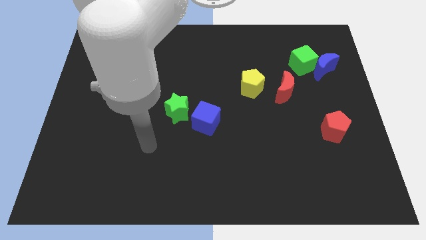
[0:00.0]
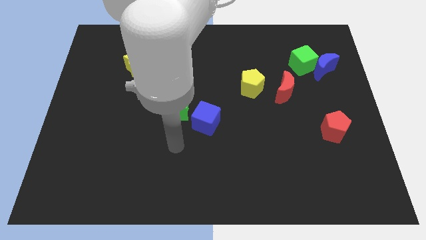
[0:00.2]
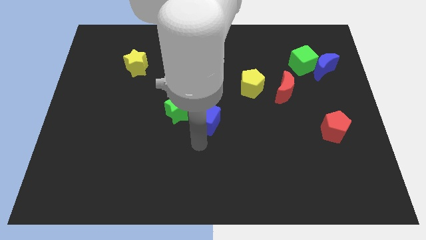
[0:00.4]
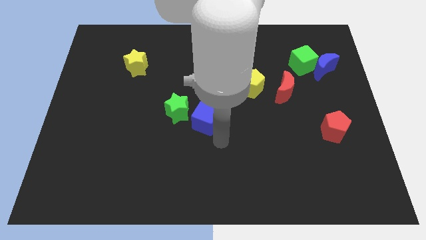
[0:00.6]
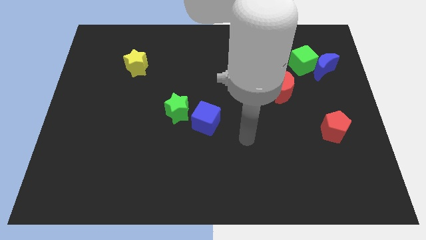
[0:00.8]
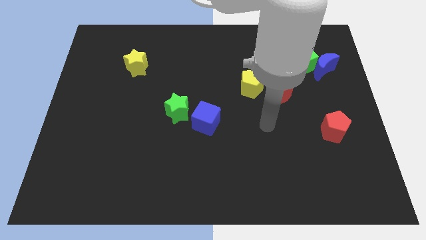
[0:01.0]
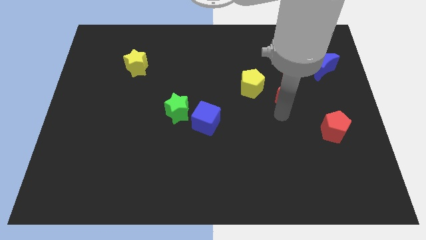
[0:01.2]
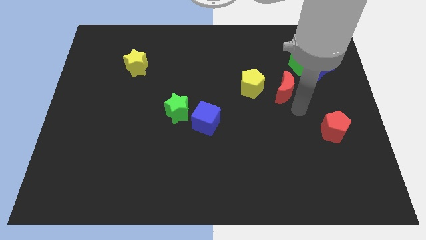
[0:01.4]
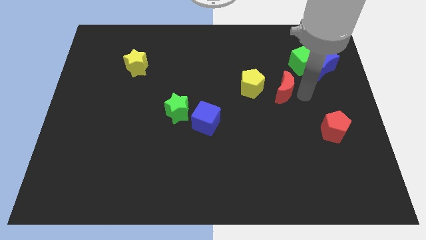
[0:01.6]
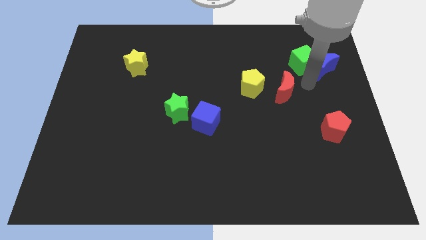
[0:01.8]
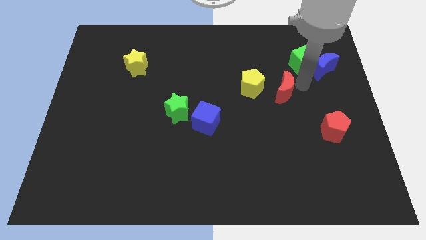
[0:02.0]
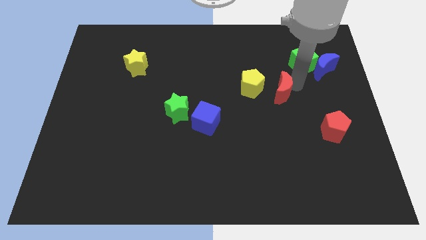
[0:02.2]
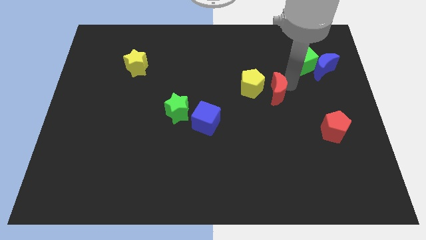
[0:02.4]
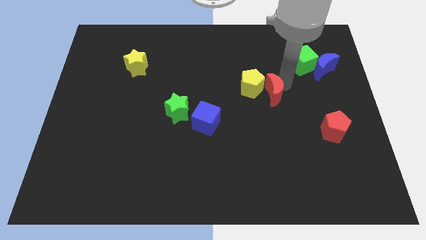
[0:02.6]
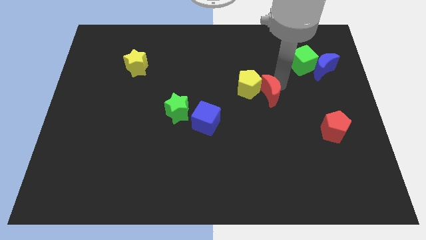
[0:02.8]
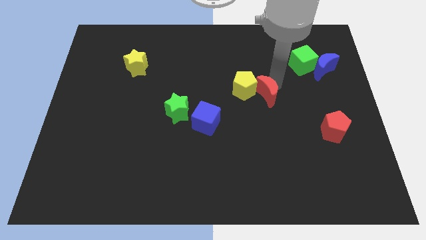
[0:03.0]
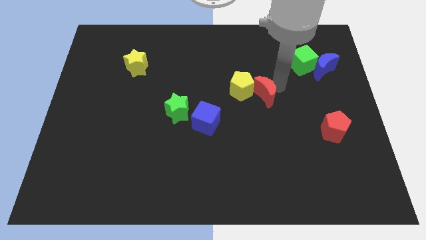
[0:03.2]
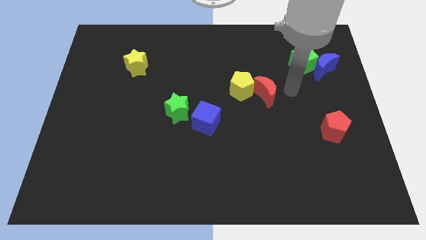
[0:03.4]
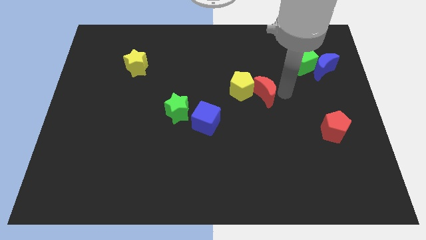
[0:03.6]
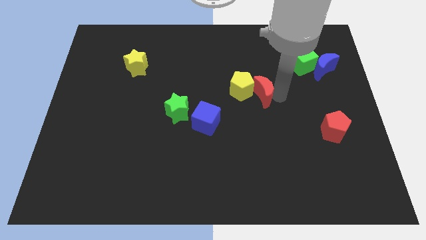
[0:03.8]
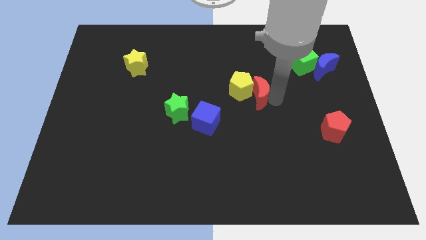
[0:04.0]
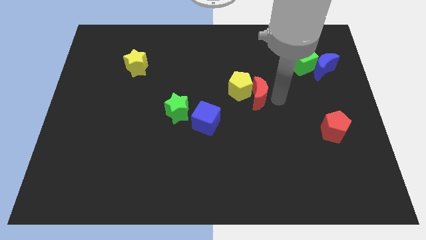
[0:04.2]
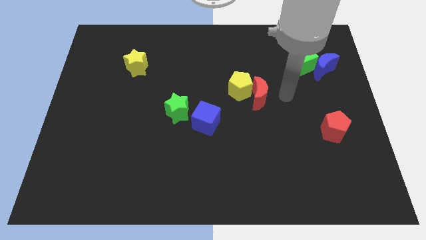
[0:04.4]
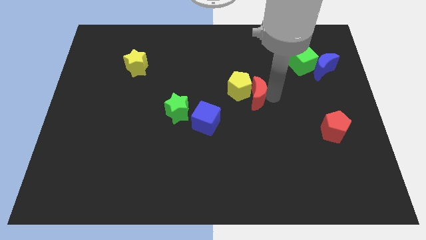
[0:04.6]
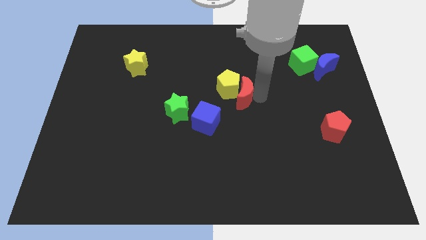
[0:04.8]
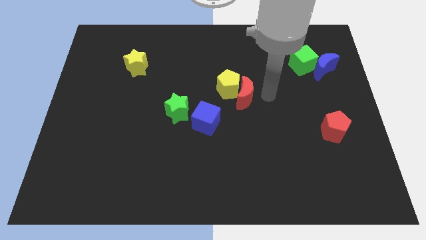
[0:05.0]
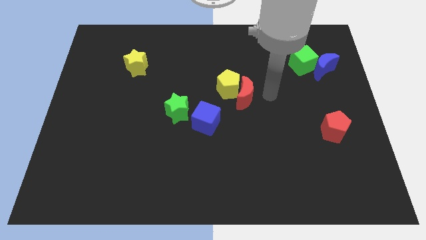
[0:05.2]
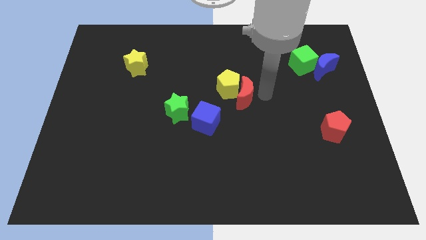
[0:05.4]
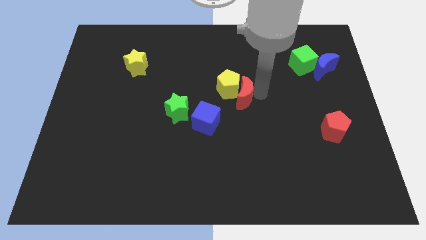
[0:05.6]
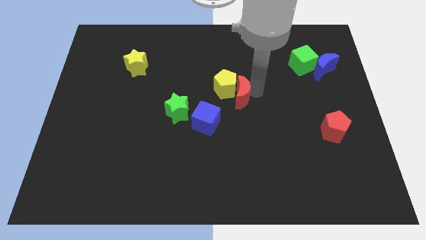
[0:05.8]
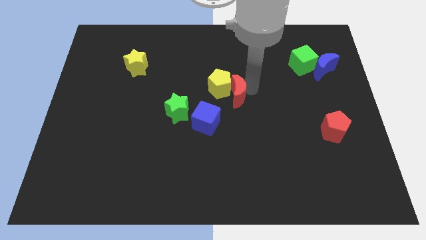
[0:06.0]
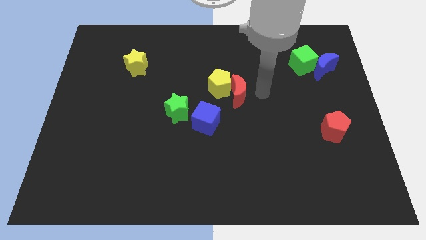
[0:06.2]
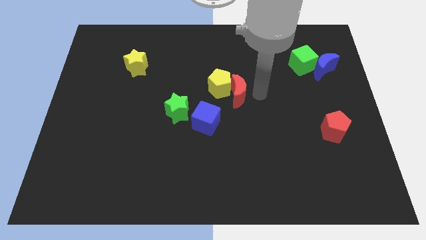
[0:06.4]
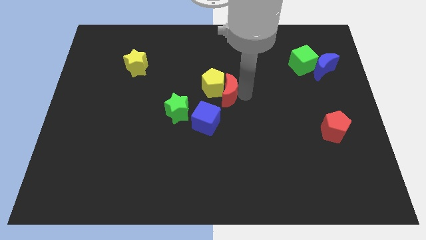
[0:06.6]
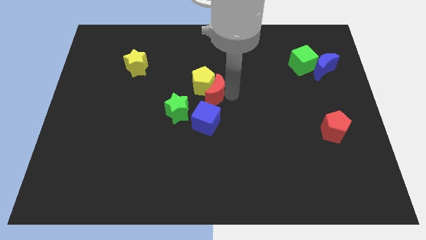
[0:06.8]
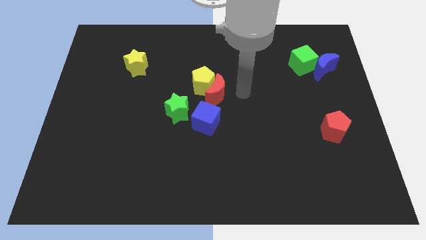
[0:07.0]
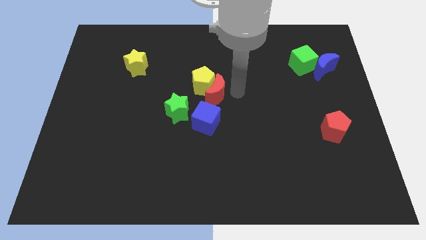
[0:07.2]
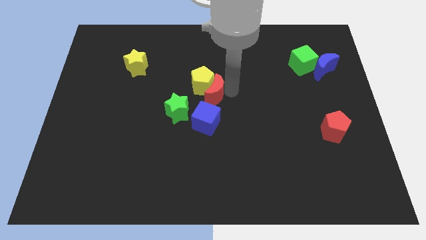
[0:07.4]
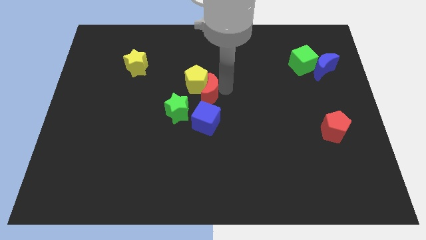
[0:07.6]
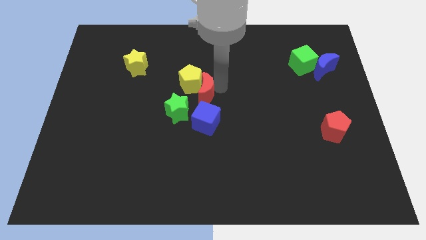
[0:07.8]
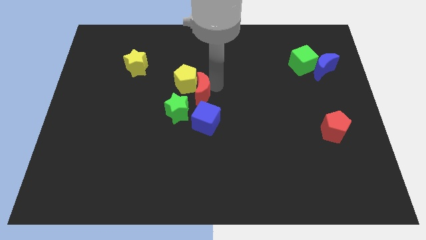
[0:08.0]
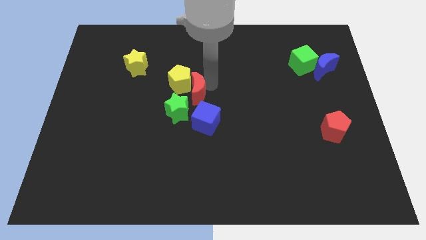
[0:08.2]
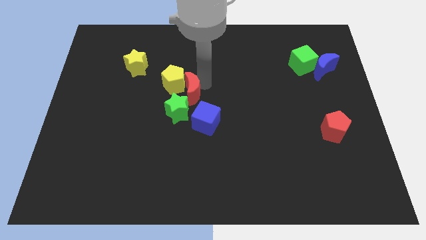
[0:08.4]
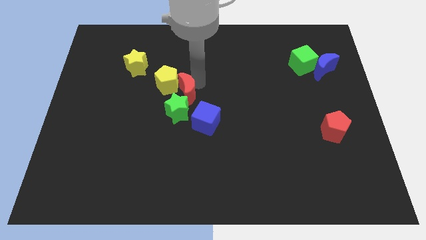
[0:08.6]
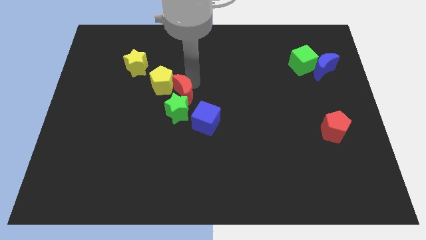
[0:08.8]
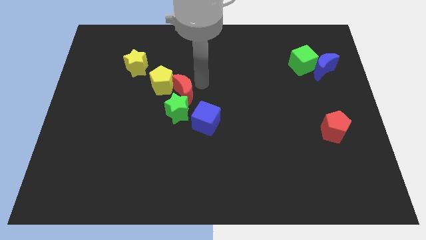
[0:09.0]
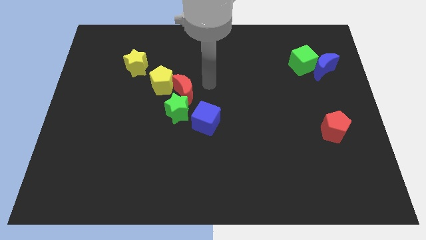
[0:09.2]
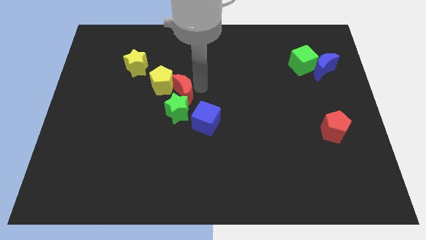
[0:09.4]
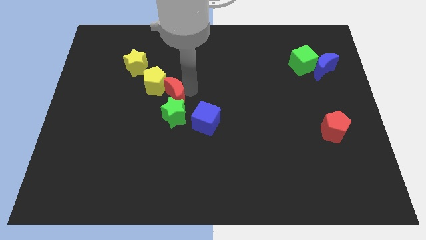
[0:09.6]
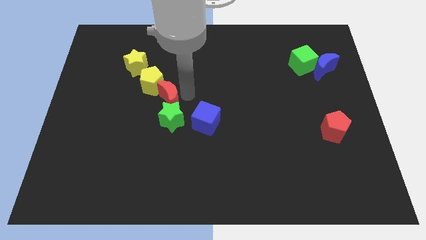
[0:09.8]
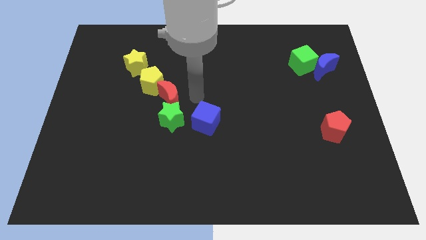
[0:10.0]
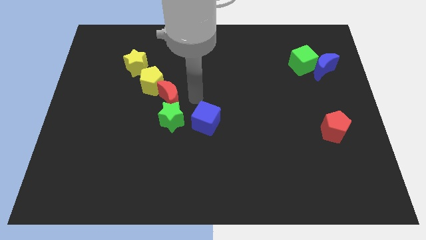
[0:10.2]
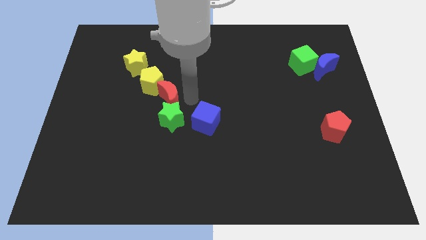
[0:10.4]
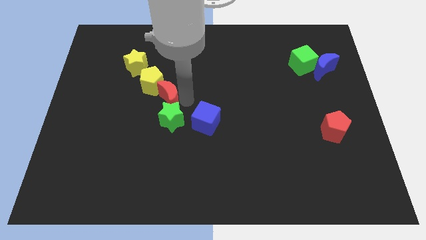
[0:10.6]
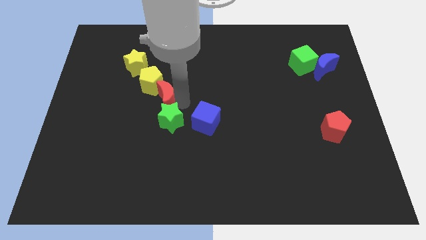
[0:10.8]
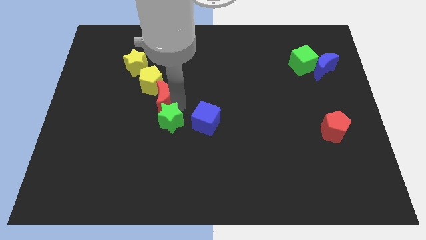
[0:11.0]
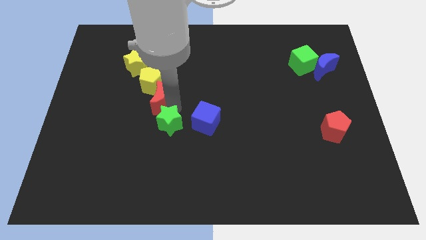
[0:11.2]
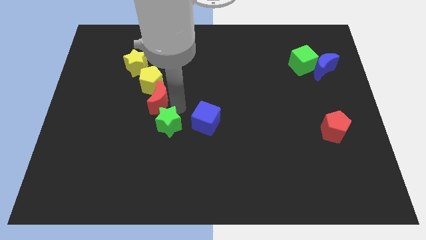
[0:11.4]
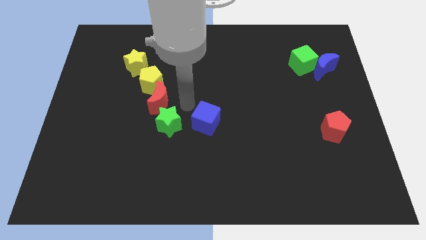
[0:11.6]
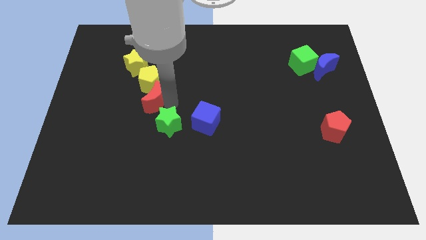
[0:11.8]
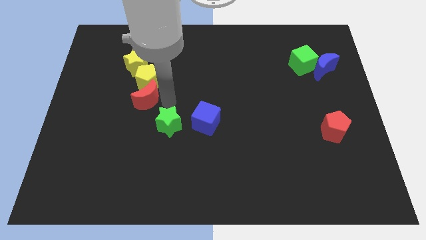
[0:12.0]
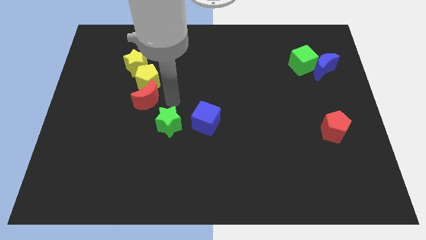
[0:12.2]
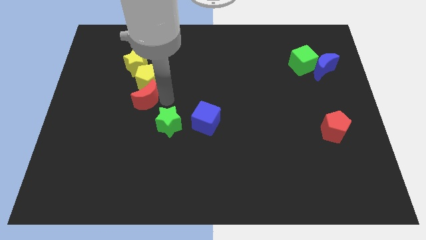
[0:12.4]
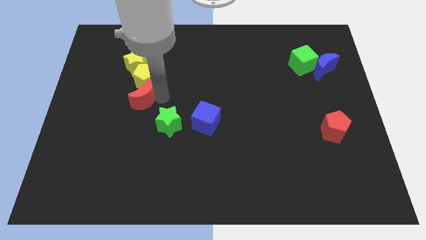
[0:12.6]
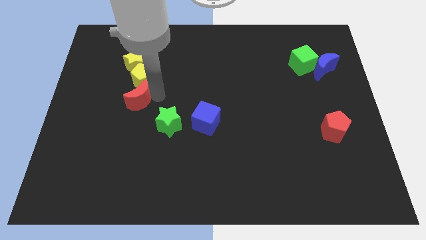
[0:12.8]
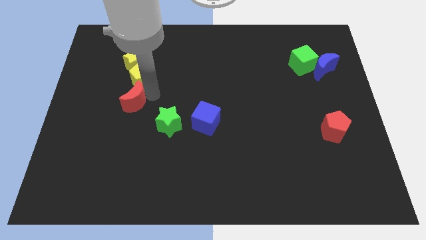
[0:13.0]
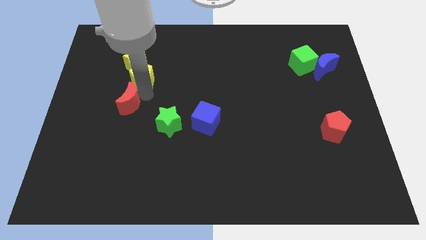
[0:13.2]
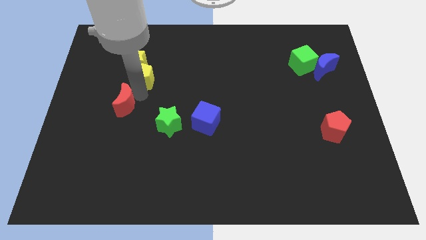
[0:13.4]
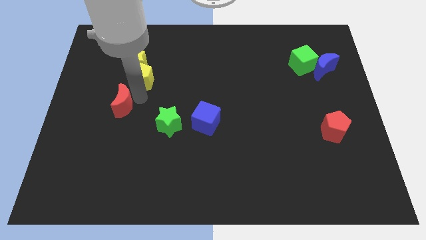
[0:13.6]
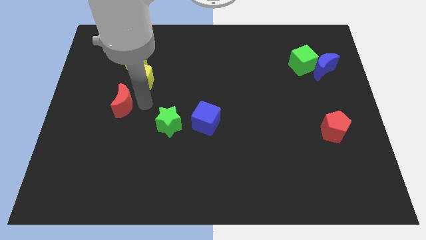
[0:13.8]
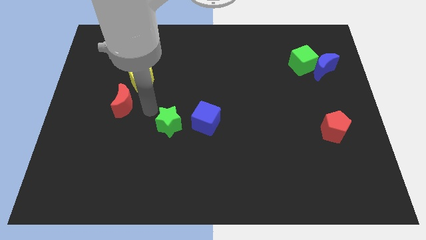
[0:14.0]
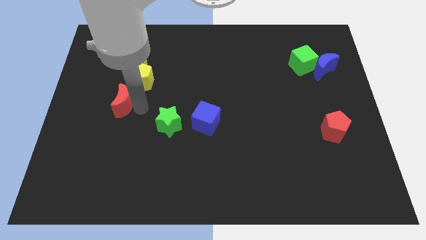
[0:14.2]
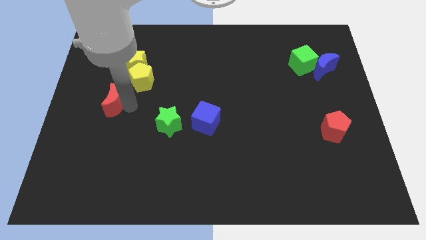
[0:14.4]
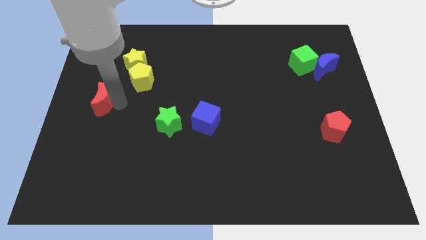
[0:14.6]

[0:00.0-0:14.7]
put the red moon to the left side

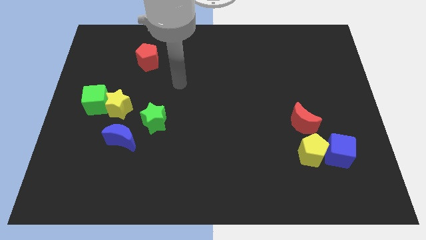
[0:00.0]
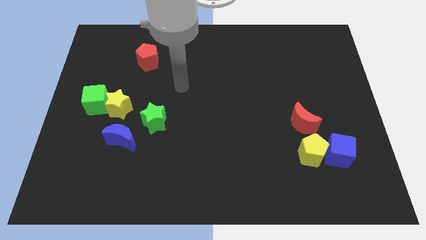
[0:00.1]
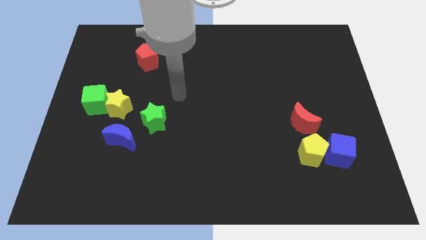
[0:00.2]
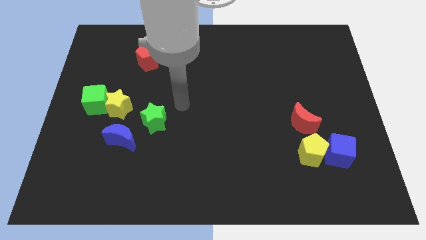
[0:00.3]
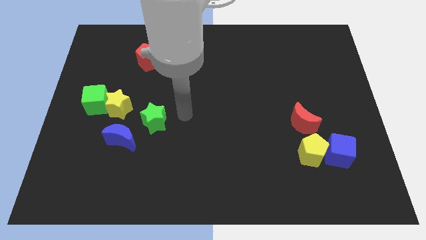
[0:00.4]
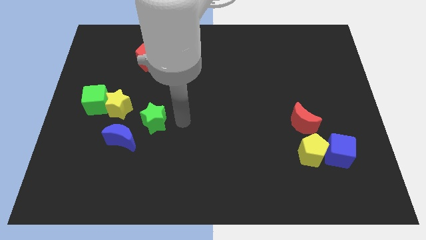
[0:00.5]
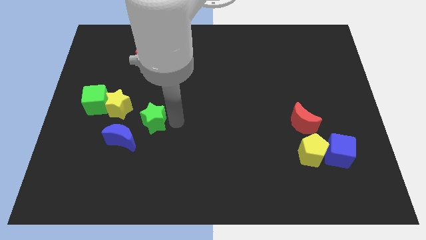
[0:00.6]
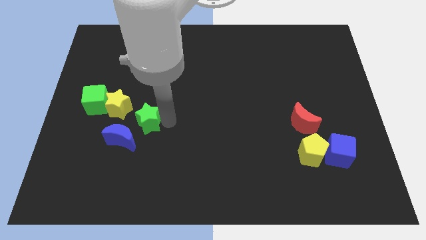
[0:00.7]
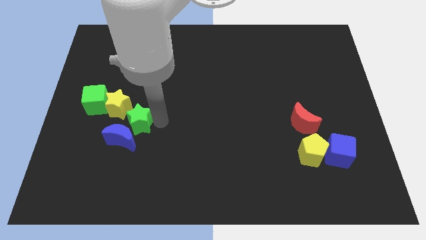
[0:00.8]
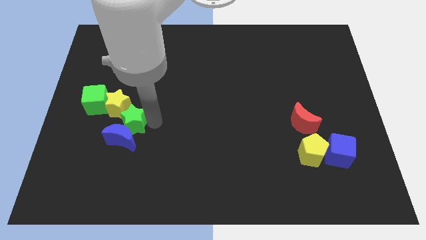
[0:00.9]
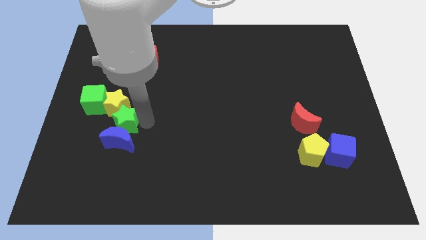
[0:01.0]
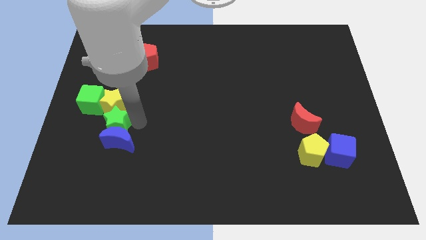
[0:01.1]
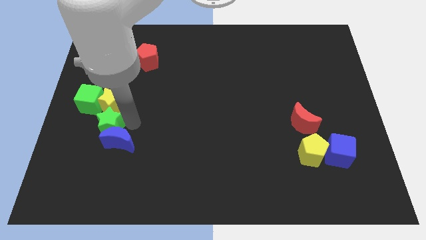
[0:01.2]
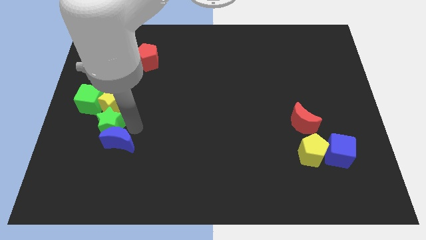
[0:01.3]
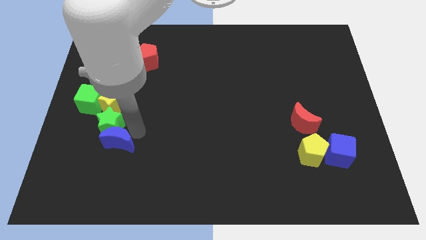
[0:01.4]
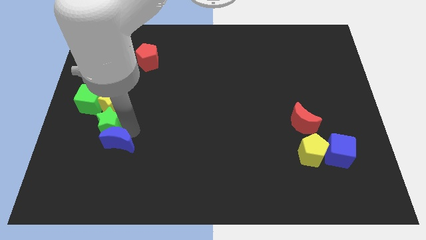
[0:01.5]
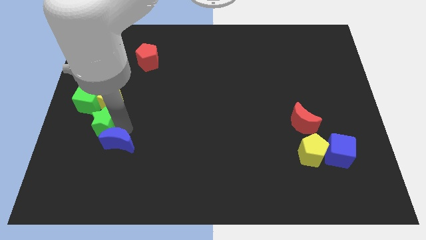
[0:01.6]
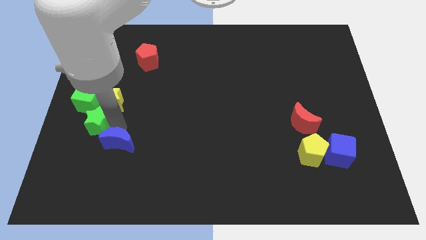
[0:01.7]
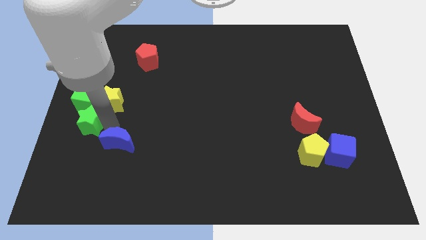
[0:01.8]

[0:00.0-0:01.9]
push the green star to the center left
